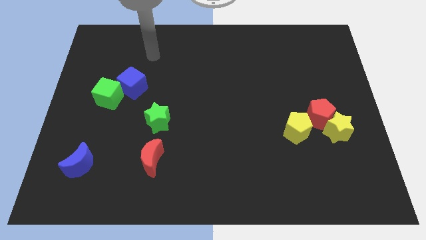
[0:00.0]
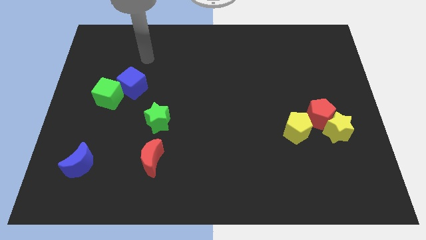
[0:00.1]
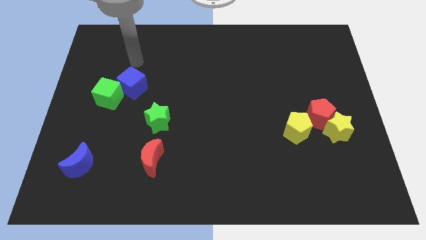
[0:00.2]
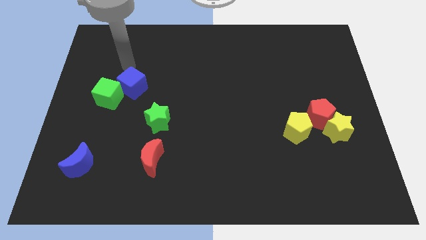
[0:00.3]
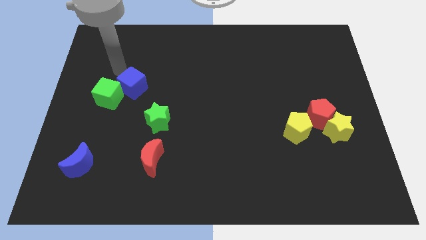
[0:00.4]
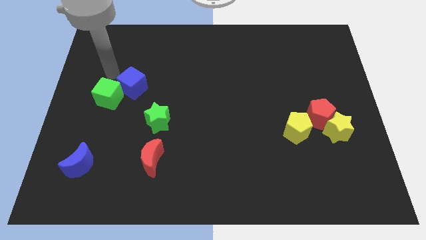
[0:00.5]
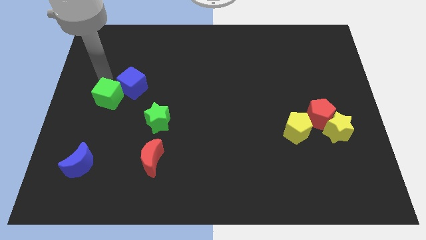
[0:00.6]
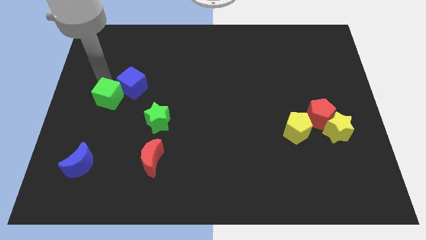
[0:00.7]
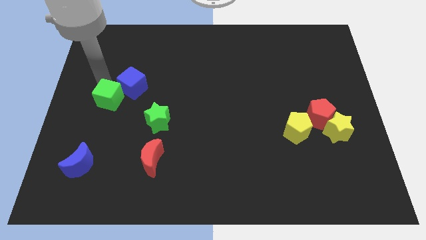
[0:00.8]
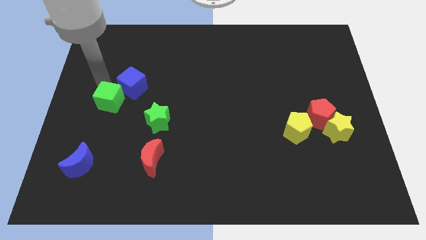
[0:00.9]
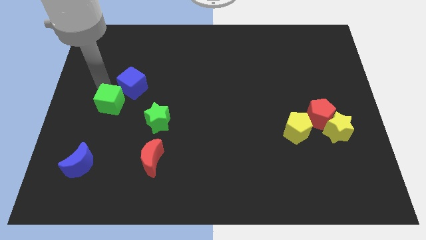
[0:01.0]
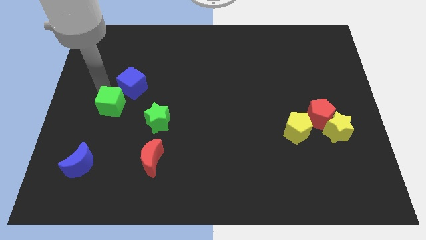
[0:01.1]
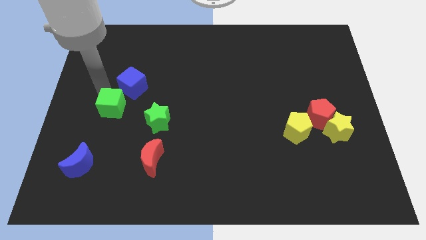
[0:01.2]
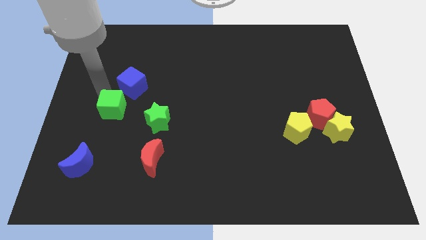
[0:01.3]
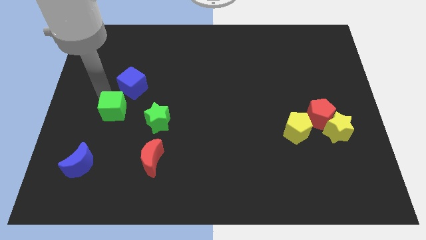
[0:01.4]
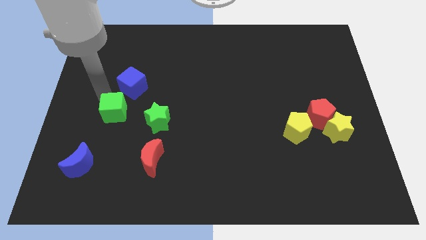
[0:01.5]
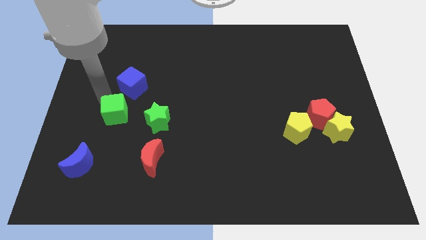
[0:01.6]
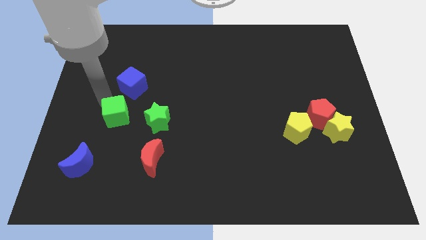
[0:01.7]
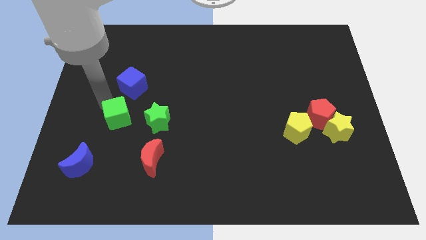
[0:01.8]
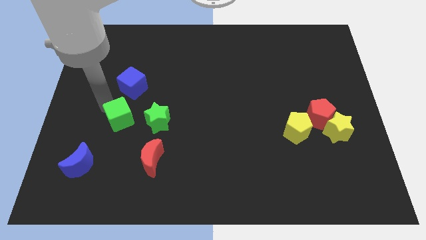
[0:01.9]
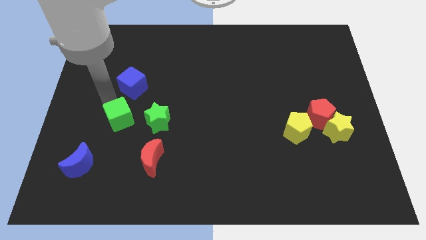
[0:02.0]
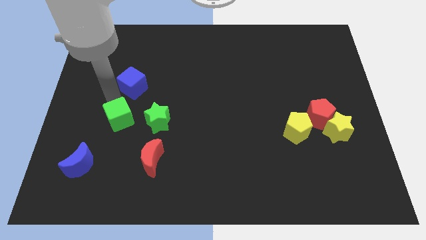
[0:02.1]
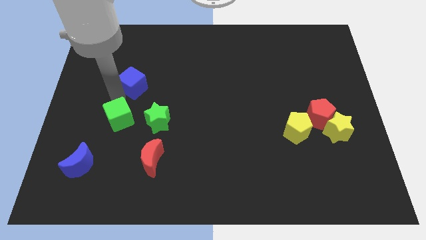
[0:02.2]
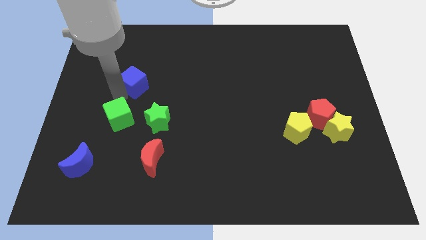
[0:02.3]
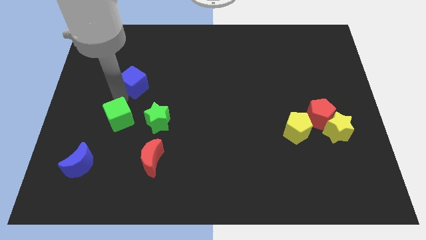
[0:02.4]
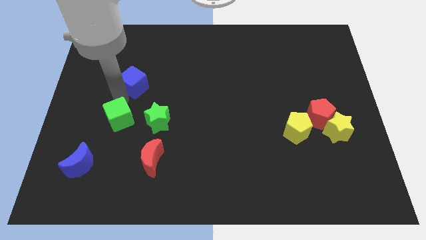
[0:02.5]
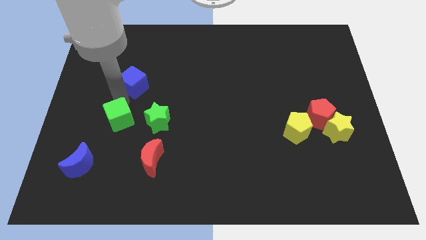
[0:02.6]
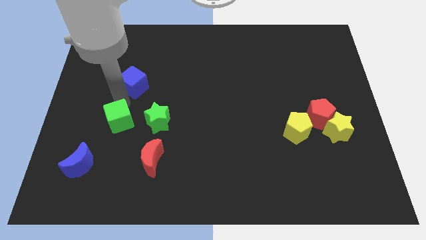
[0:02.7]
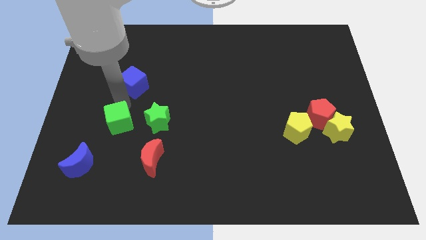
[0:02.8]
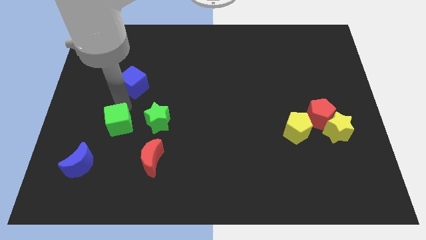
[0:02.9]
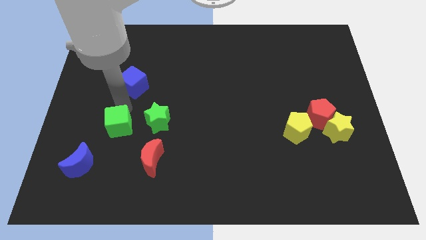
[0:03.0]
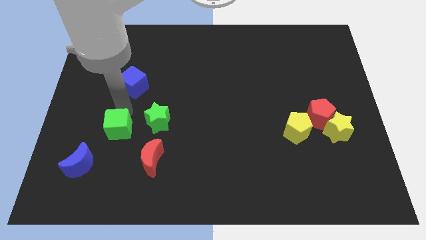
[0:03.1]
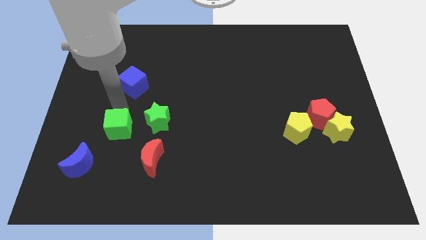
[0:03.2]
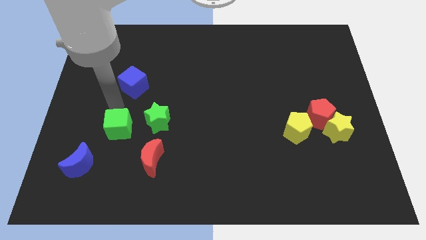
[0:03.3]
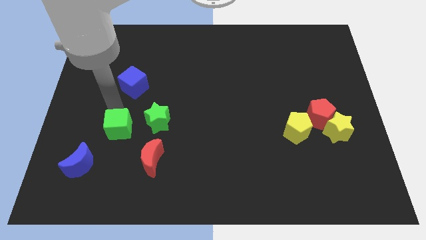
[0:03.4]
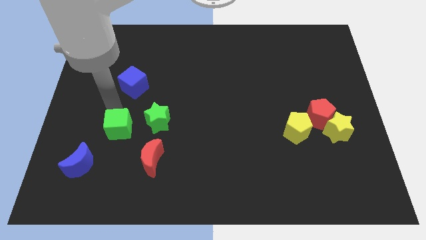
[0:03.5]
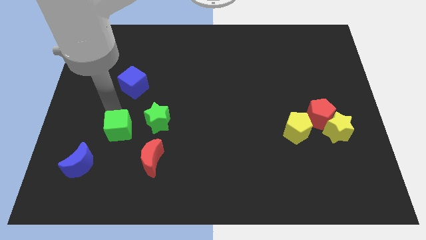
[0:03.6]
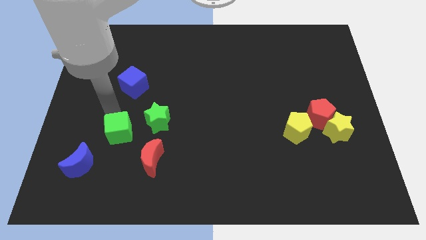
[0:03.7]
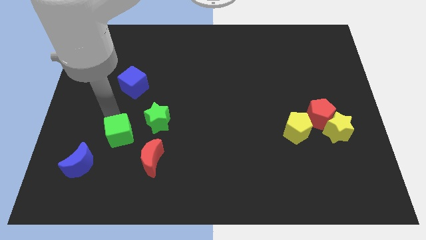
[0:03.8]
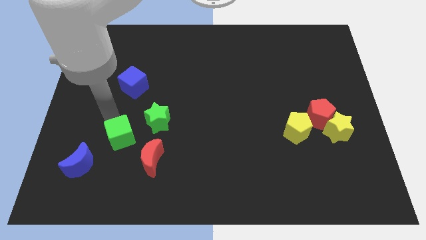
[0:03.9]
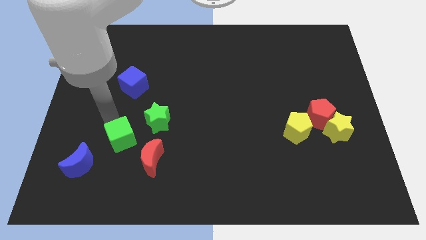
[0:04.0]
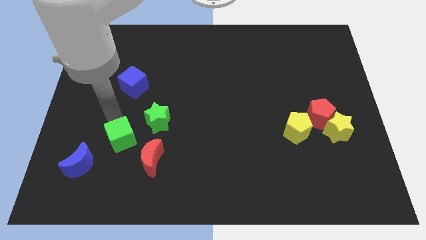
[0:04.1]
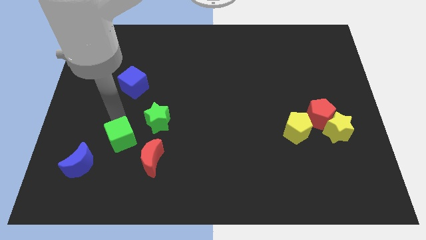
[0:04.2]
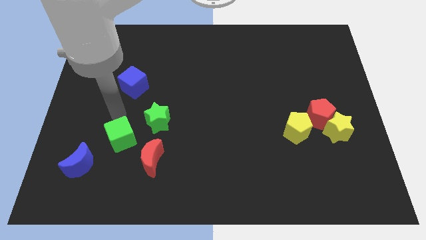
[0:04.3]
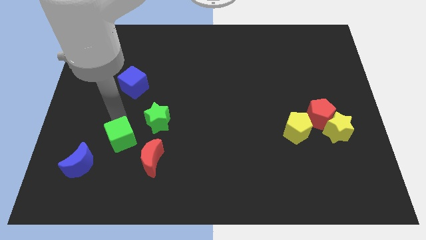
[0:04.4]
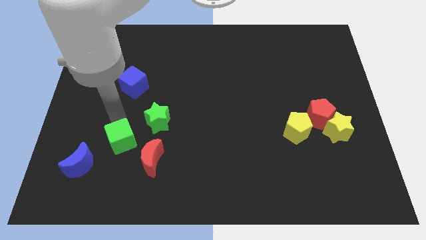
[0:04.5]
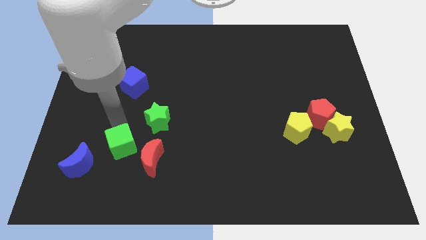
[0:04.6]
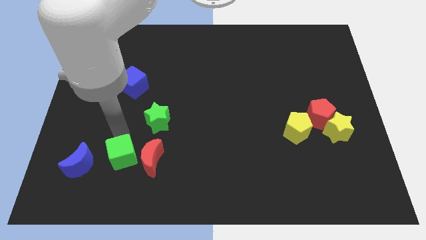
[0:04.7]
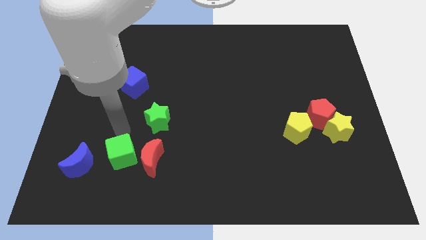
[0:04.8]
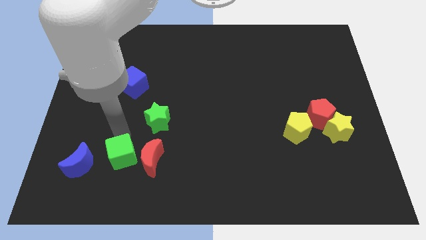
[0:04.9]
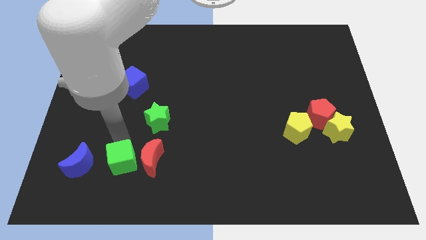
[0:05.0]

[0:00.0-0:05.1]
push the green cube diagonally down and to the left of the red moon

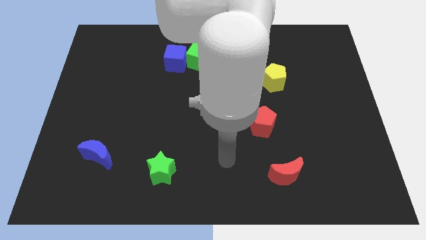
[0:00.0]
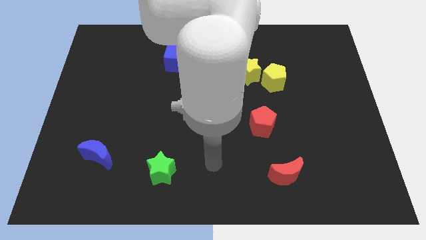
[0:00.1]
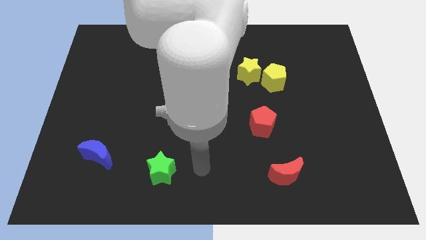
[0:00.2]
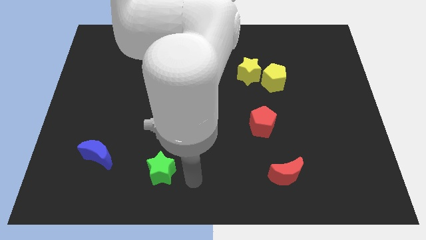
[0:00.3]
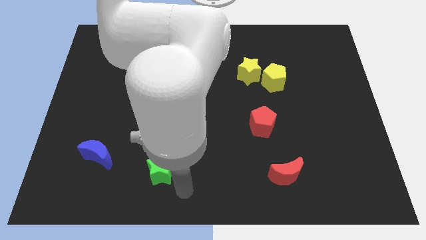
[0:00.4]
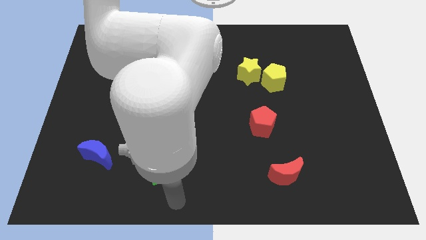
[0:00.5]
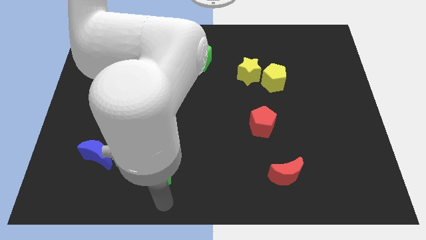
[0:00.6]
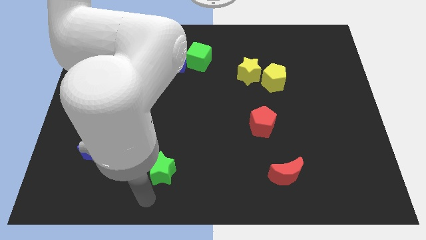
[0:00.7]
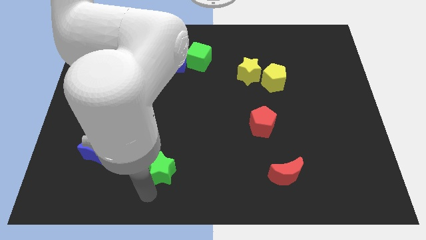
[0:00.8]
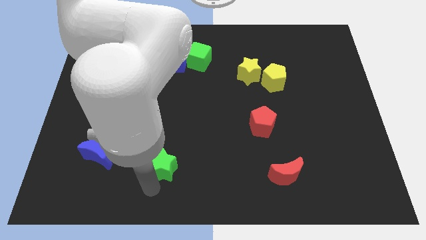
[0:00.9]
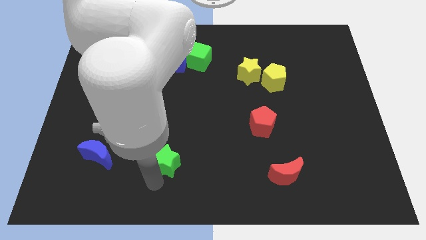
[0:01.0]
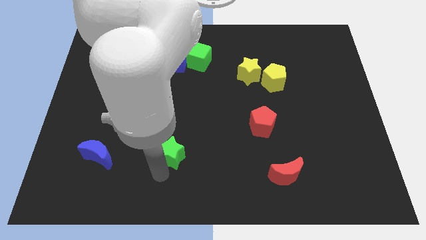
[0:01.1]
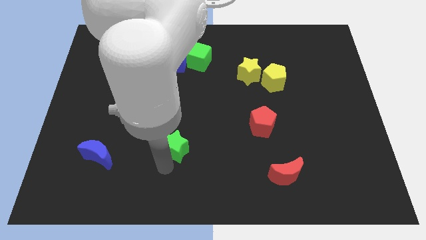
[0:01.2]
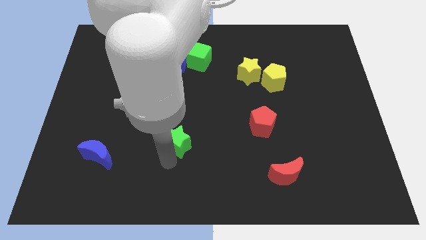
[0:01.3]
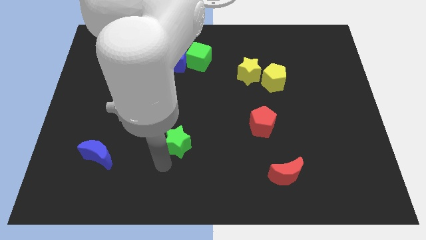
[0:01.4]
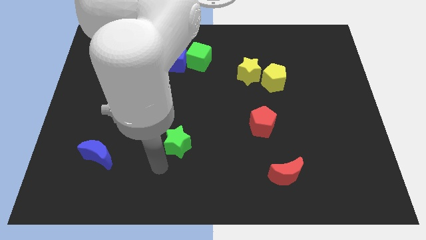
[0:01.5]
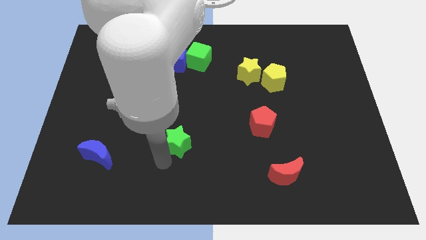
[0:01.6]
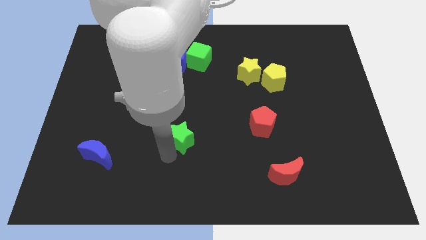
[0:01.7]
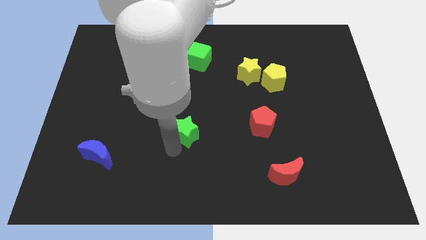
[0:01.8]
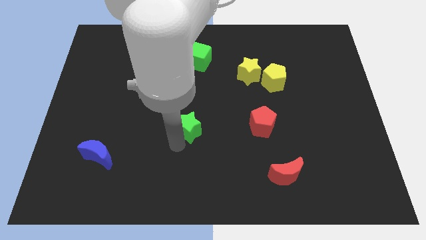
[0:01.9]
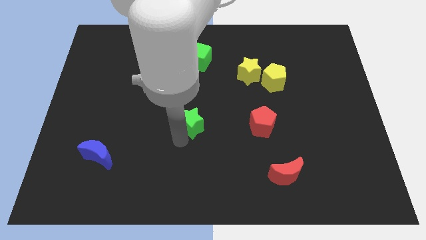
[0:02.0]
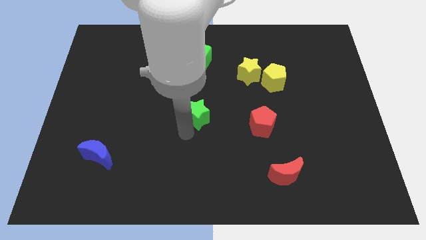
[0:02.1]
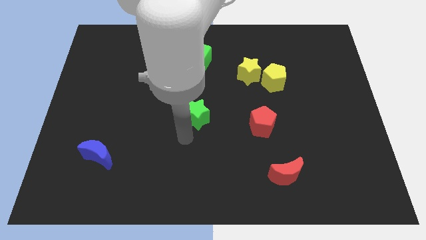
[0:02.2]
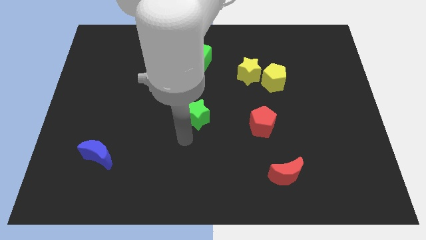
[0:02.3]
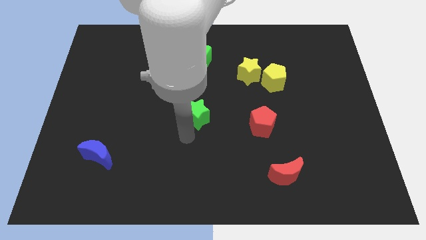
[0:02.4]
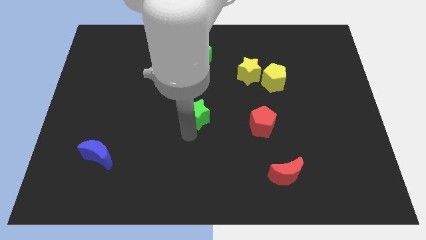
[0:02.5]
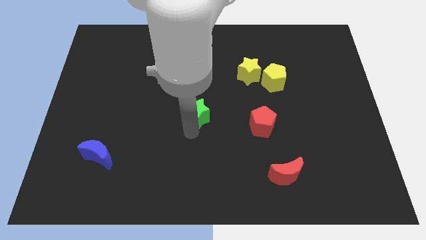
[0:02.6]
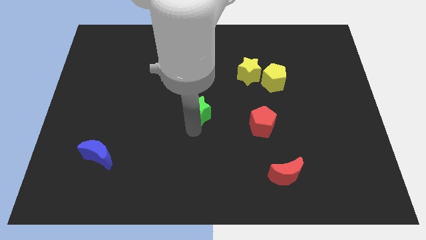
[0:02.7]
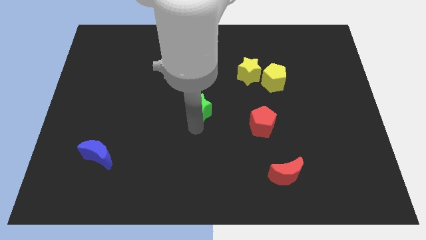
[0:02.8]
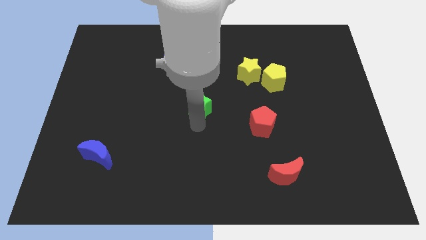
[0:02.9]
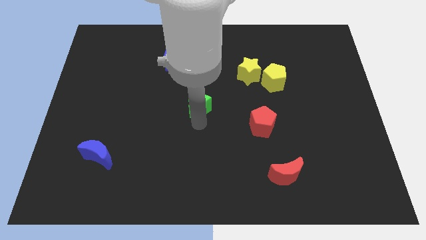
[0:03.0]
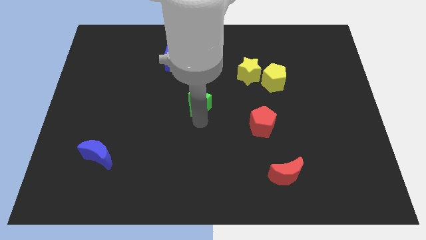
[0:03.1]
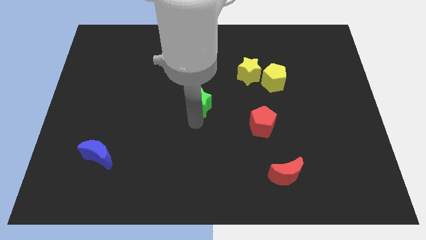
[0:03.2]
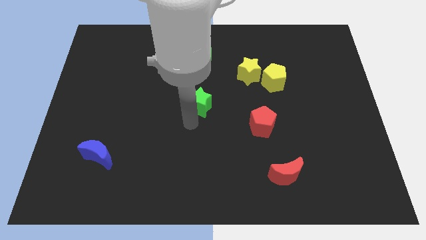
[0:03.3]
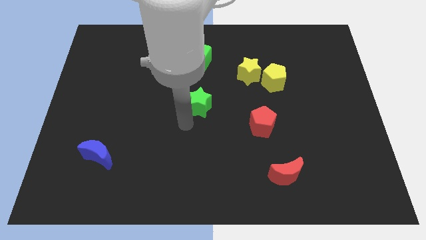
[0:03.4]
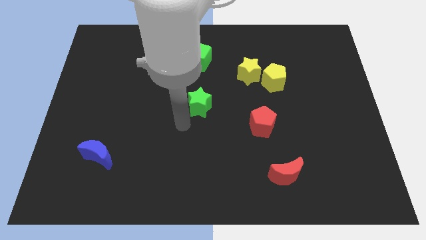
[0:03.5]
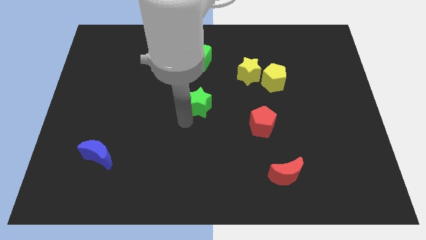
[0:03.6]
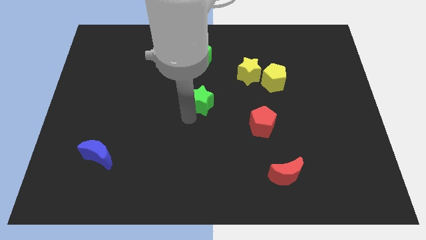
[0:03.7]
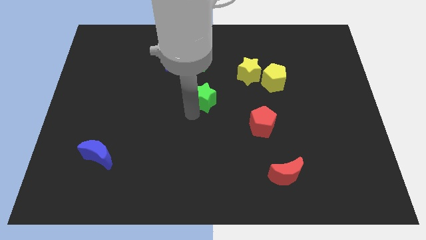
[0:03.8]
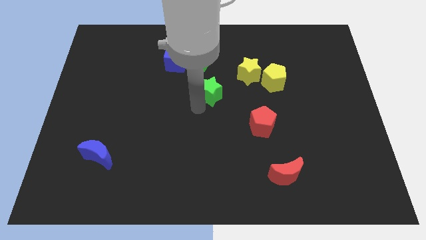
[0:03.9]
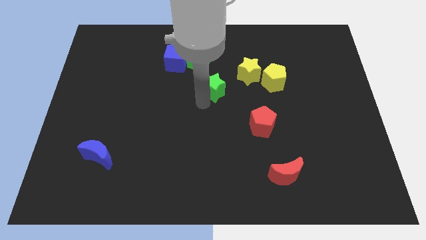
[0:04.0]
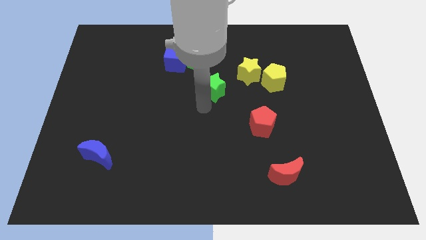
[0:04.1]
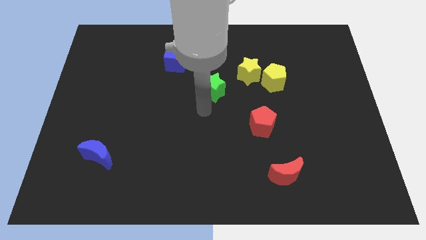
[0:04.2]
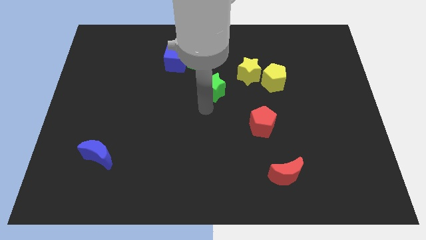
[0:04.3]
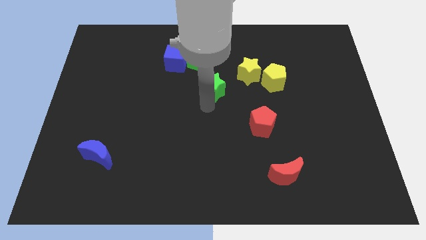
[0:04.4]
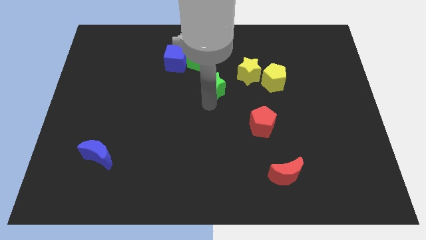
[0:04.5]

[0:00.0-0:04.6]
push the green star diagonally down and to the right of the green cube
